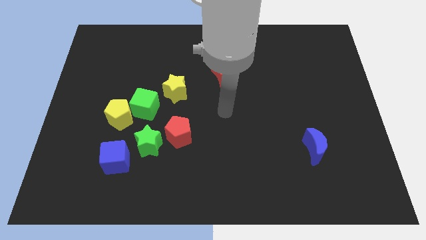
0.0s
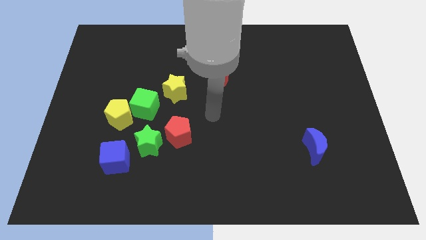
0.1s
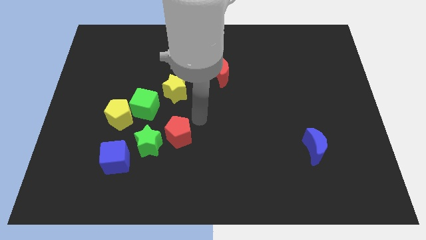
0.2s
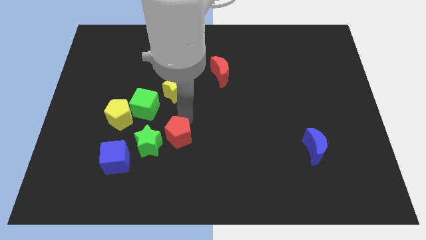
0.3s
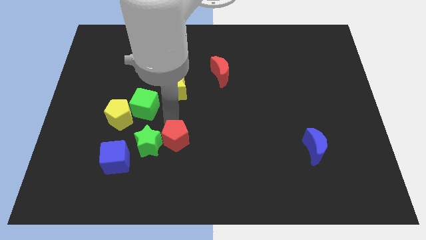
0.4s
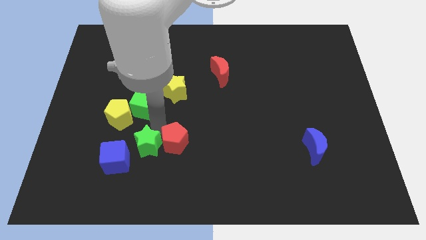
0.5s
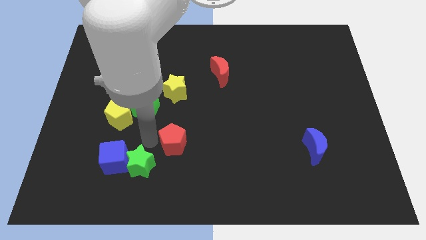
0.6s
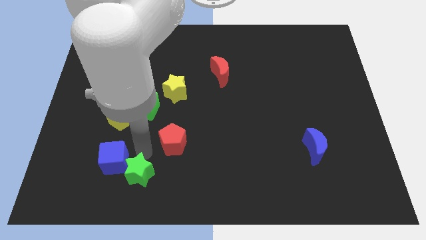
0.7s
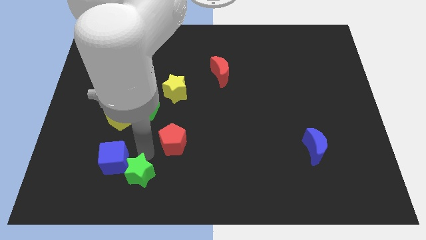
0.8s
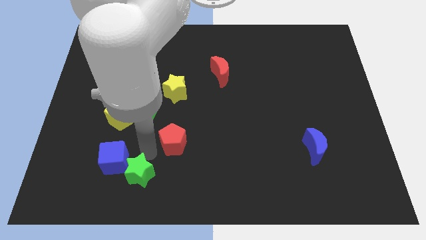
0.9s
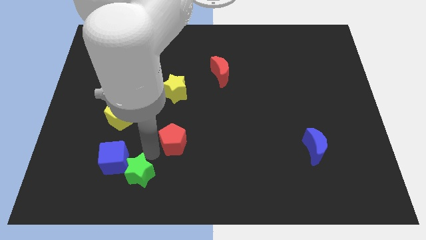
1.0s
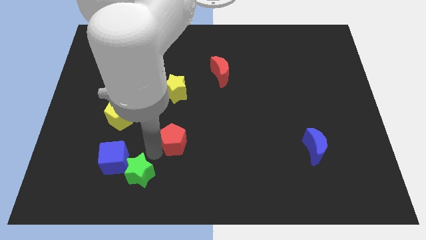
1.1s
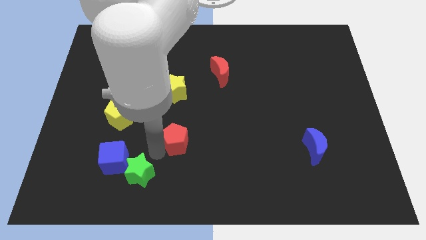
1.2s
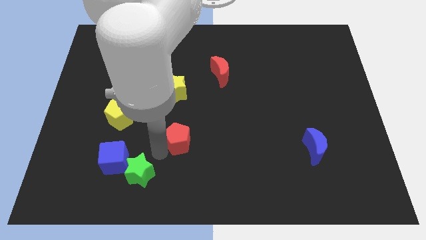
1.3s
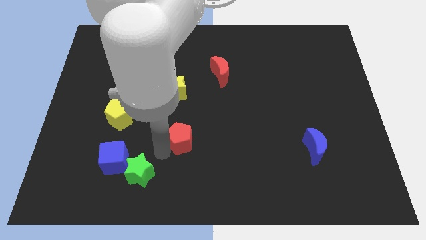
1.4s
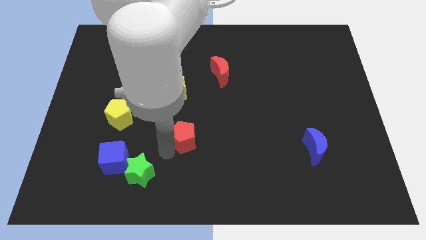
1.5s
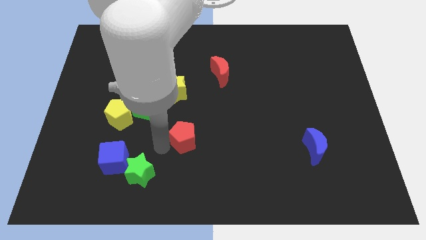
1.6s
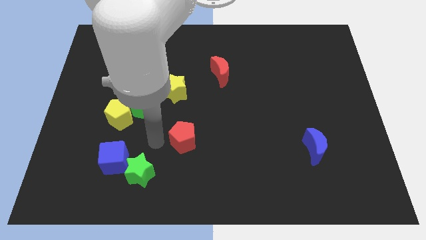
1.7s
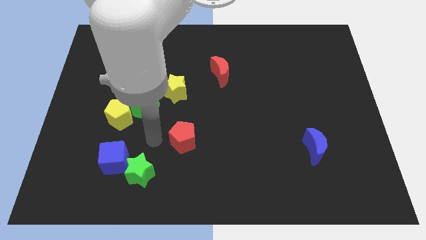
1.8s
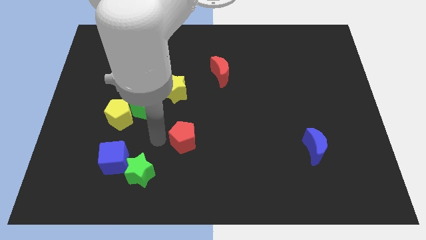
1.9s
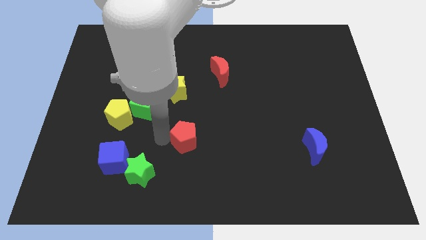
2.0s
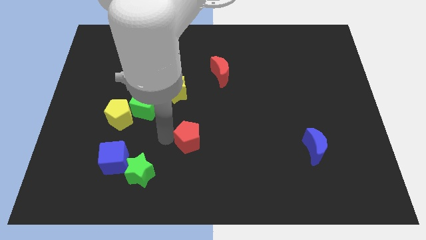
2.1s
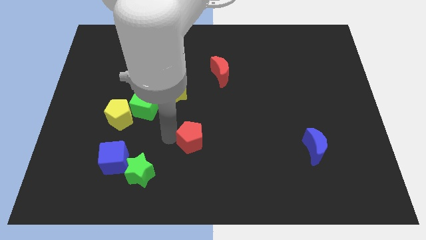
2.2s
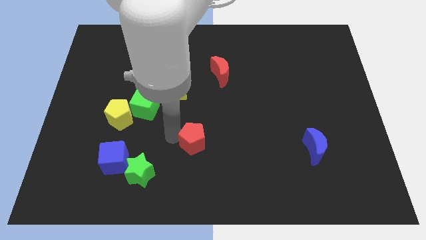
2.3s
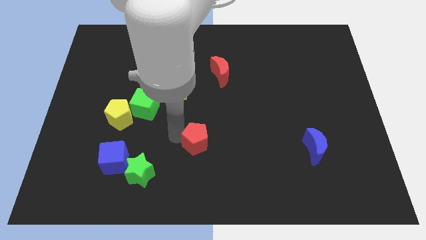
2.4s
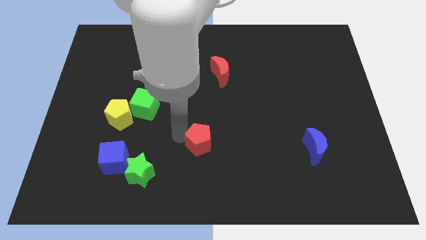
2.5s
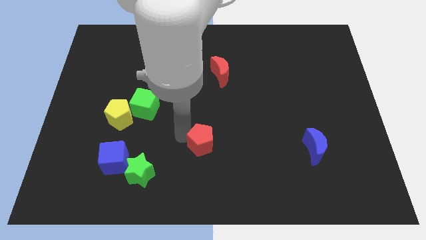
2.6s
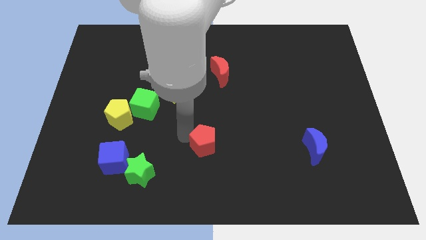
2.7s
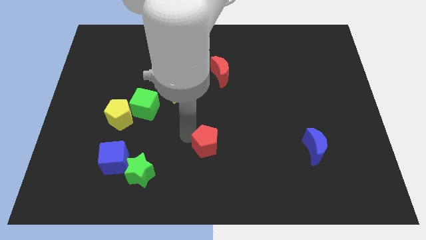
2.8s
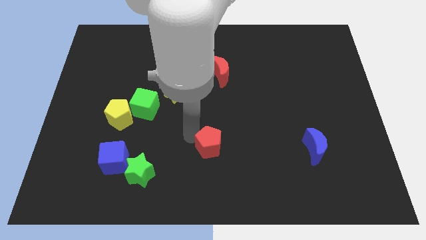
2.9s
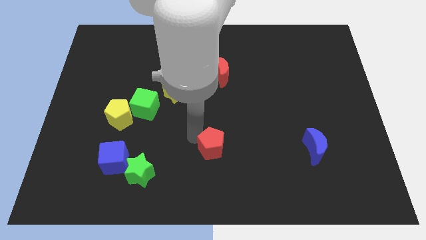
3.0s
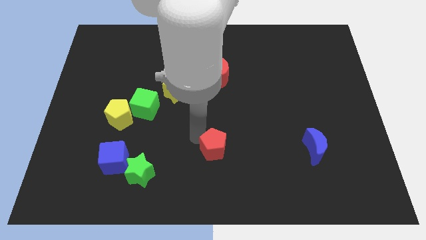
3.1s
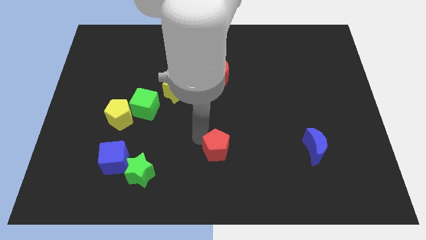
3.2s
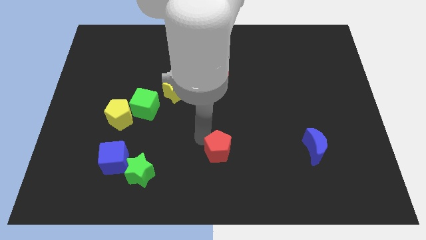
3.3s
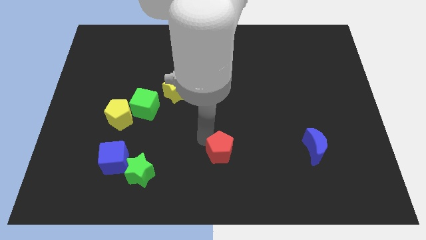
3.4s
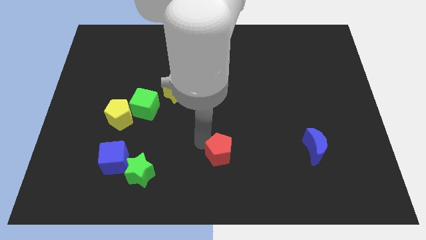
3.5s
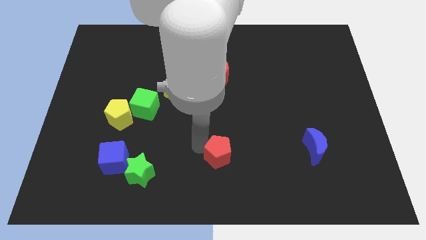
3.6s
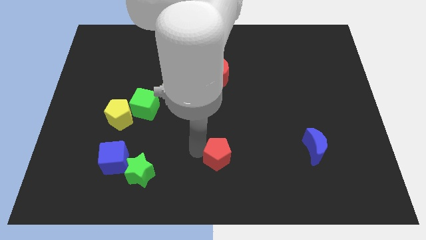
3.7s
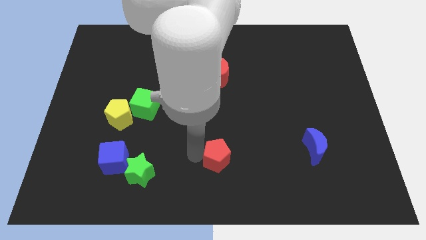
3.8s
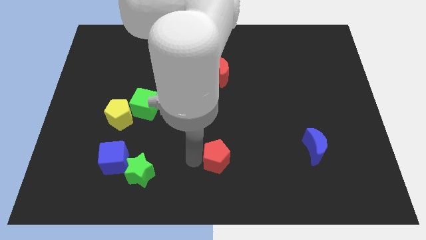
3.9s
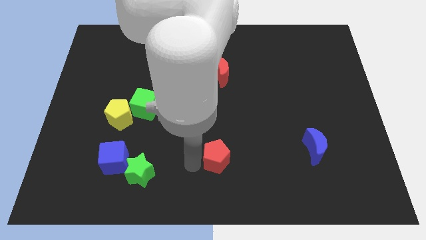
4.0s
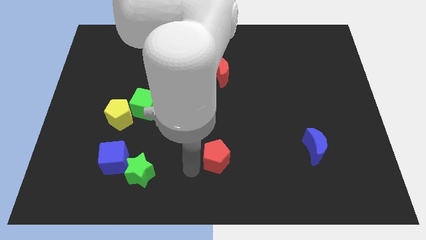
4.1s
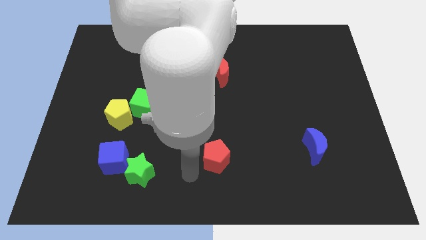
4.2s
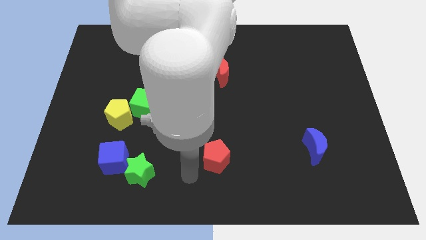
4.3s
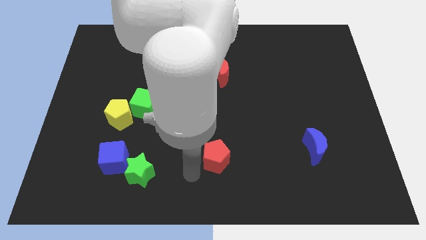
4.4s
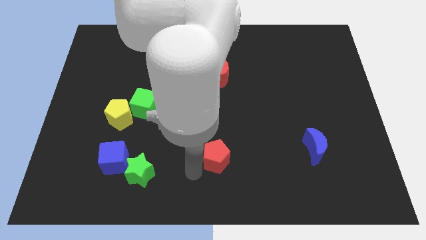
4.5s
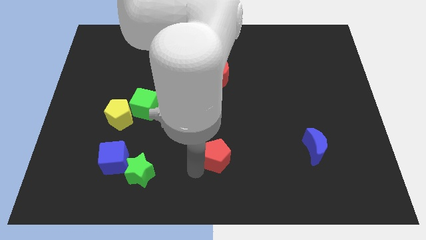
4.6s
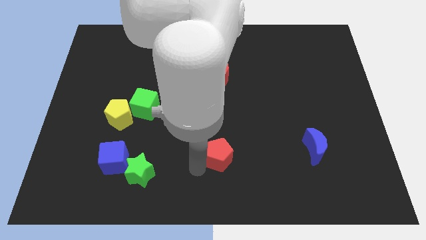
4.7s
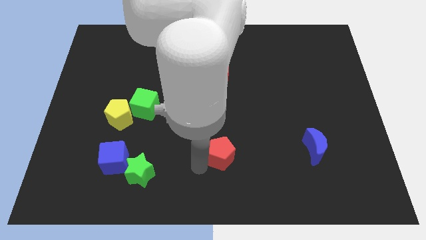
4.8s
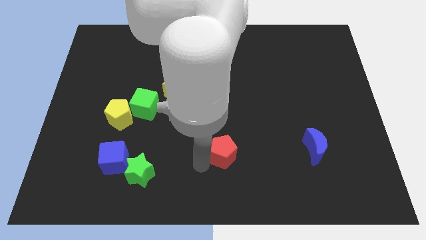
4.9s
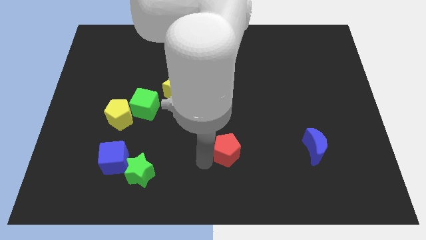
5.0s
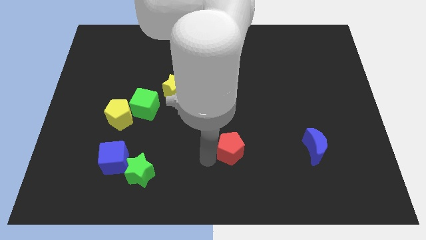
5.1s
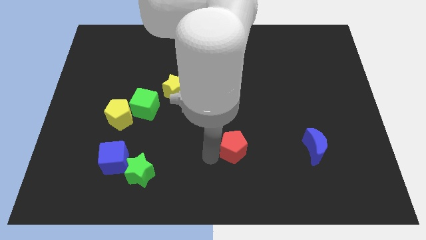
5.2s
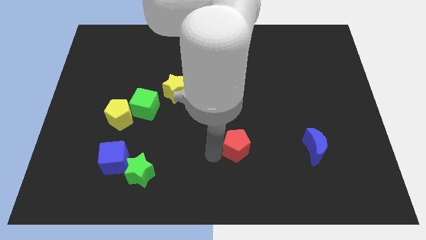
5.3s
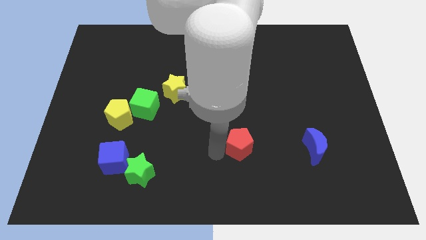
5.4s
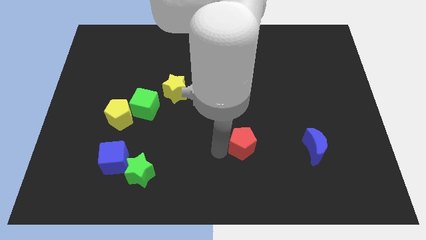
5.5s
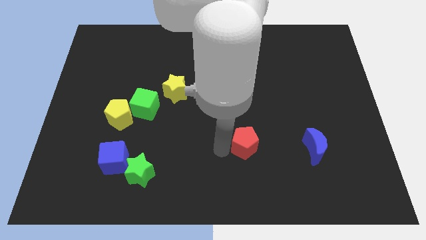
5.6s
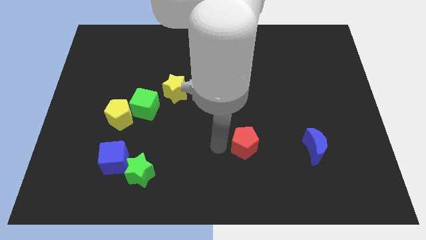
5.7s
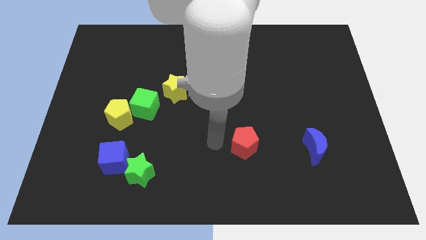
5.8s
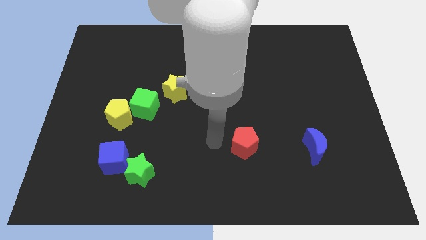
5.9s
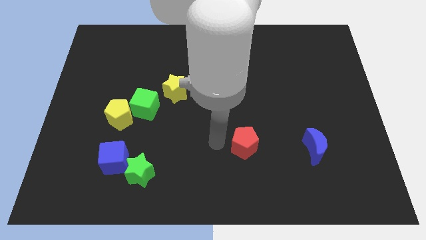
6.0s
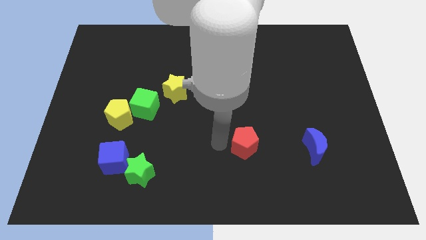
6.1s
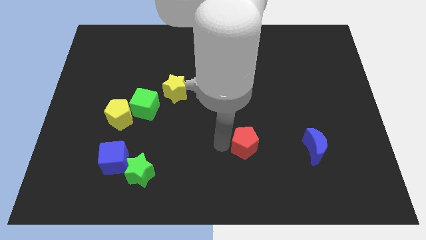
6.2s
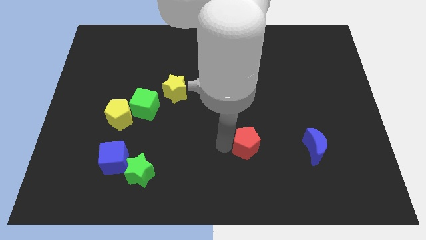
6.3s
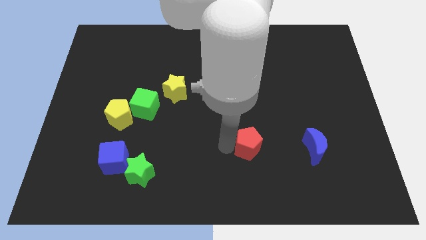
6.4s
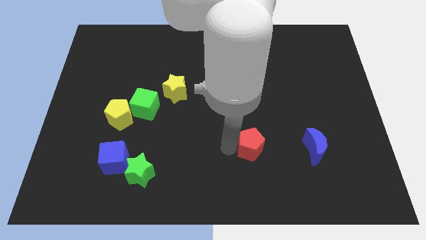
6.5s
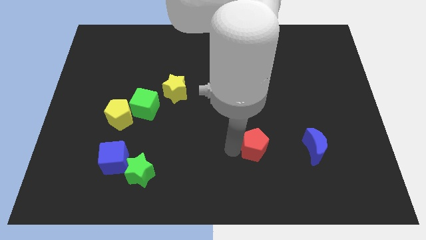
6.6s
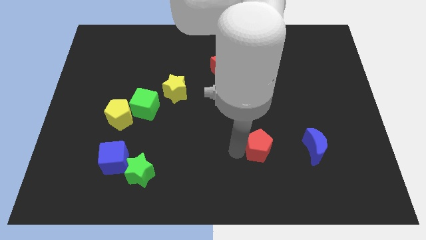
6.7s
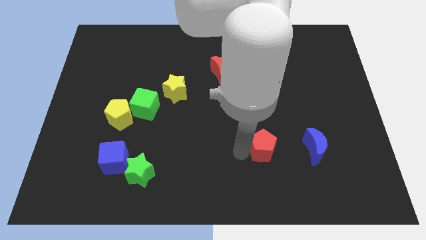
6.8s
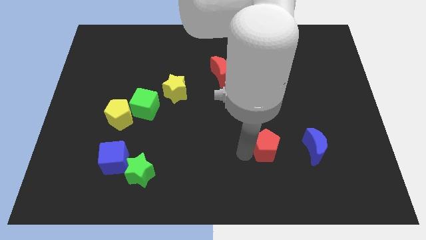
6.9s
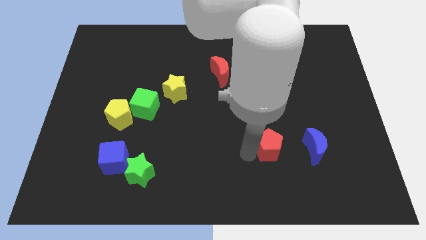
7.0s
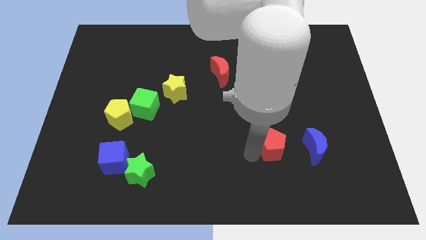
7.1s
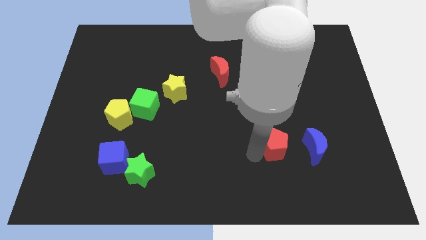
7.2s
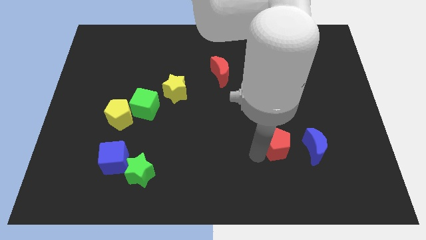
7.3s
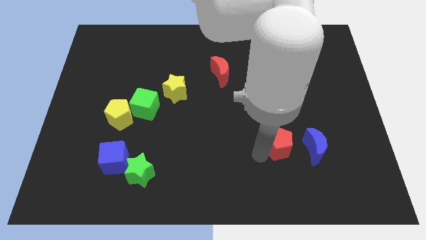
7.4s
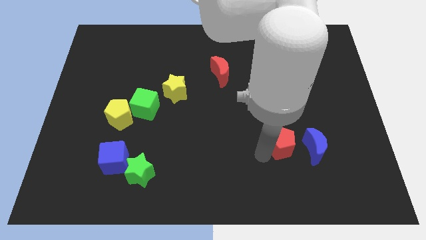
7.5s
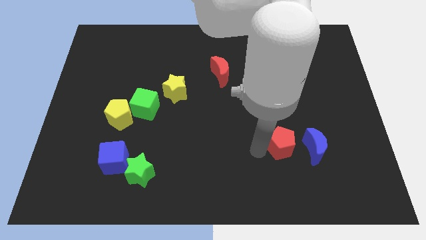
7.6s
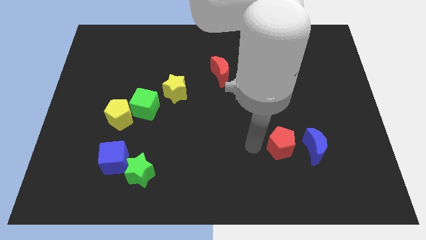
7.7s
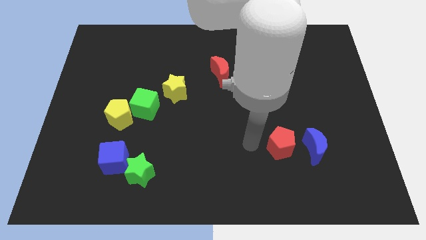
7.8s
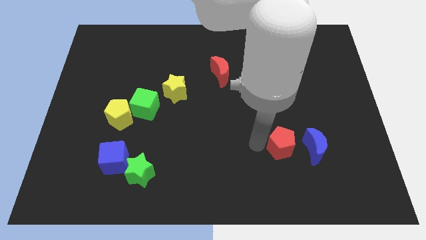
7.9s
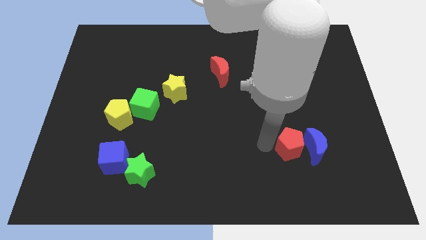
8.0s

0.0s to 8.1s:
move the red pentagon towards the blue moon
